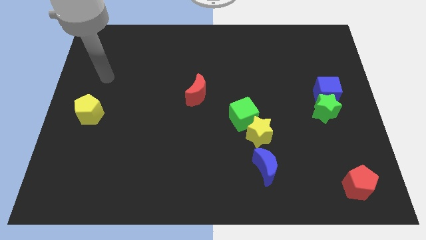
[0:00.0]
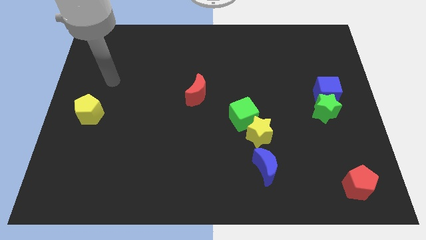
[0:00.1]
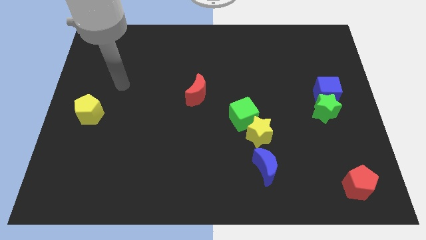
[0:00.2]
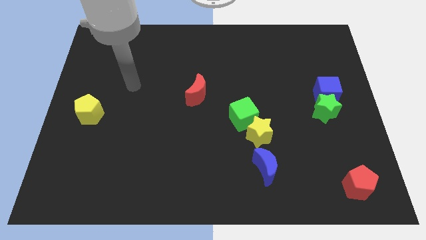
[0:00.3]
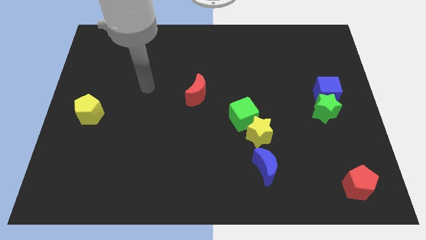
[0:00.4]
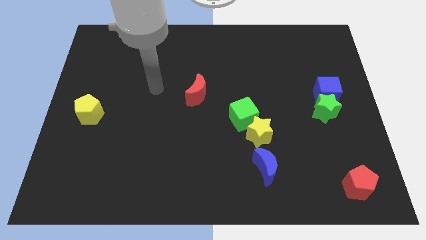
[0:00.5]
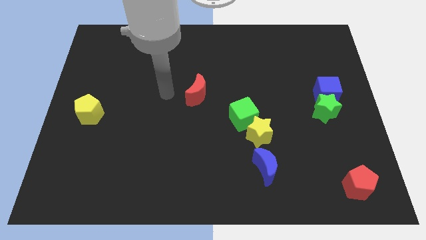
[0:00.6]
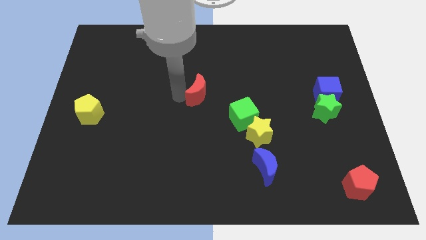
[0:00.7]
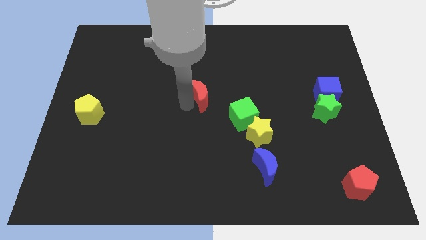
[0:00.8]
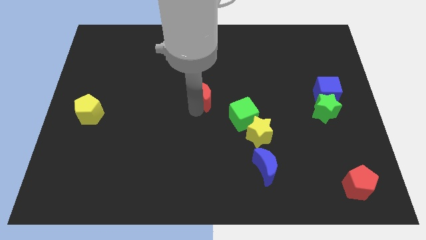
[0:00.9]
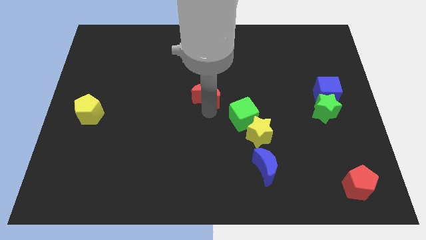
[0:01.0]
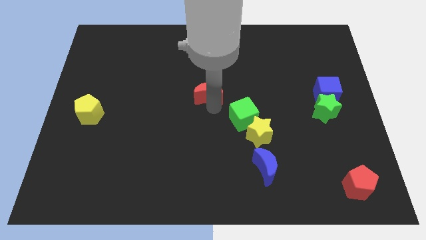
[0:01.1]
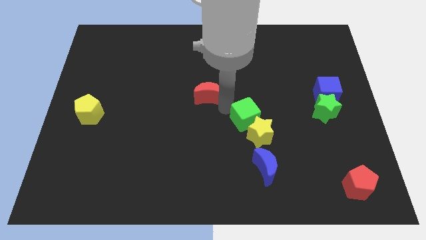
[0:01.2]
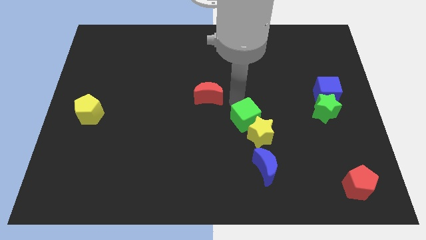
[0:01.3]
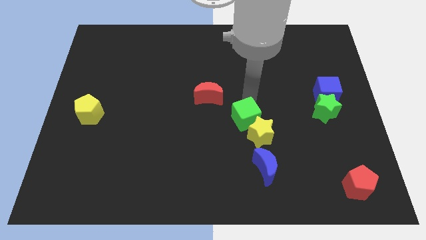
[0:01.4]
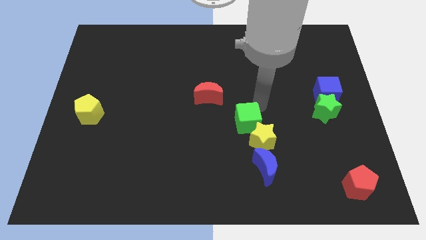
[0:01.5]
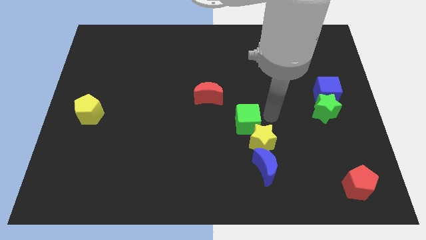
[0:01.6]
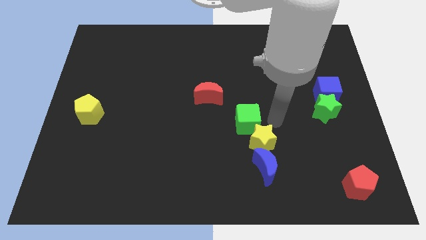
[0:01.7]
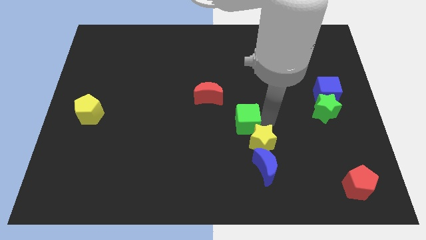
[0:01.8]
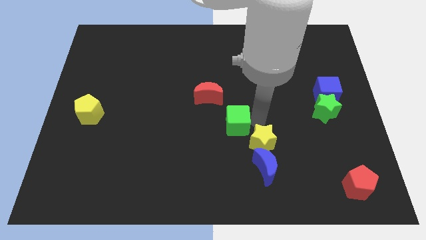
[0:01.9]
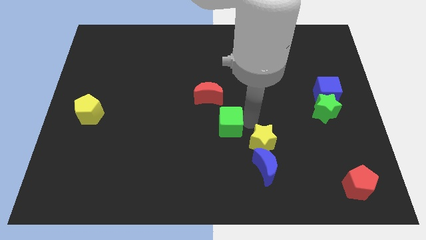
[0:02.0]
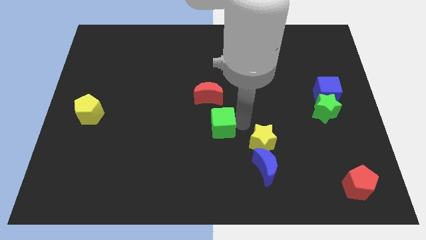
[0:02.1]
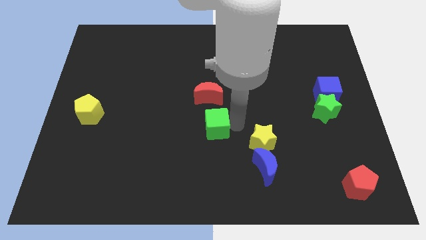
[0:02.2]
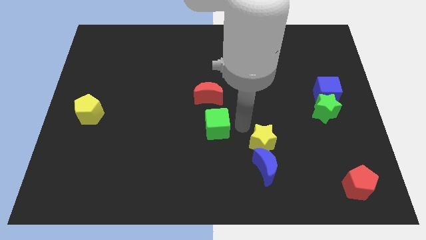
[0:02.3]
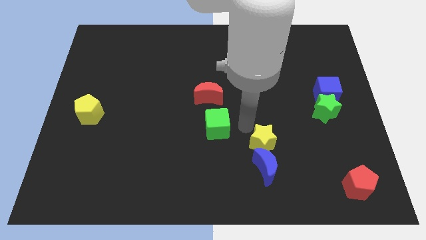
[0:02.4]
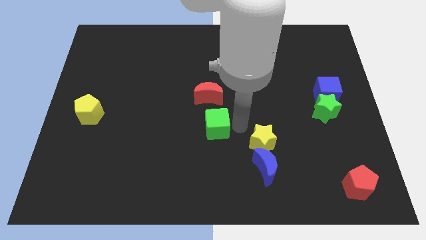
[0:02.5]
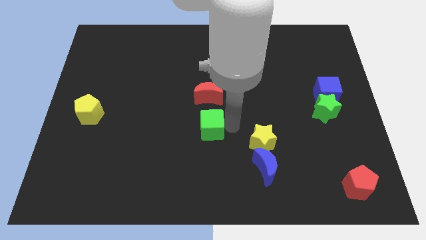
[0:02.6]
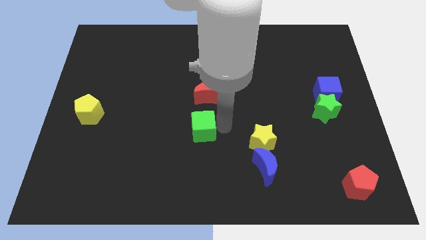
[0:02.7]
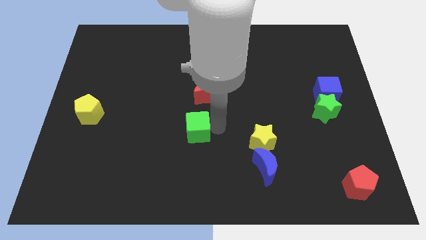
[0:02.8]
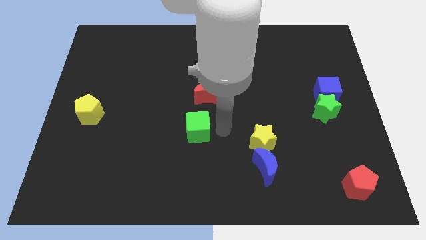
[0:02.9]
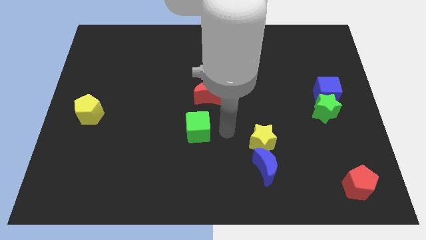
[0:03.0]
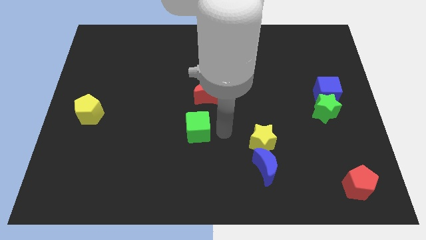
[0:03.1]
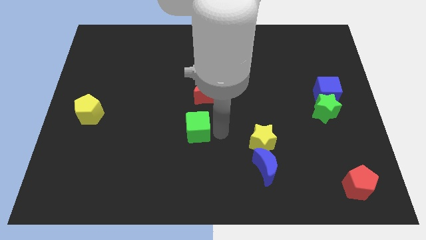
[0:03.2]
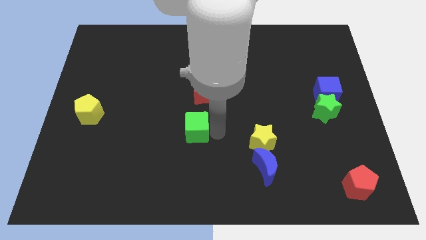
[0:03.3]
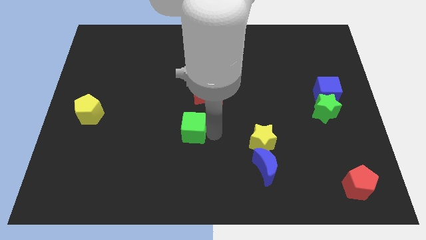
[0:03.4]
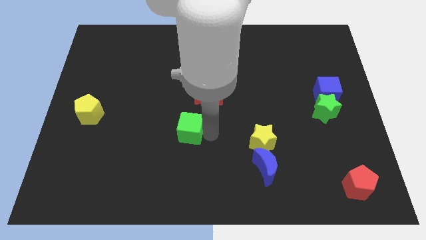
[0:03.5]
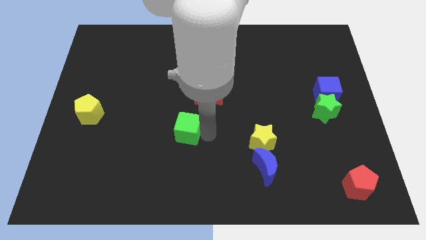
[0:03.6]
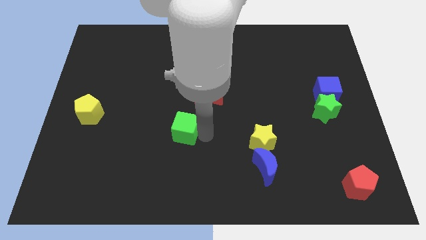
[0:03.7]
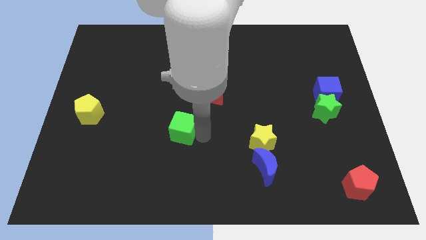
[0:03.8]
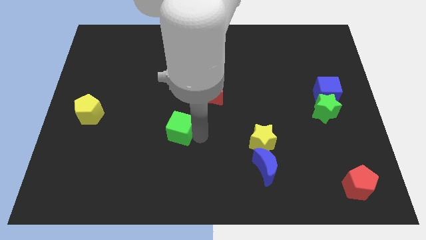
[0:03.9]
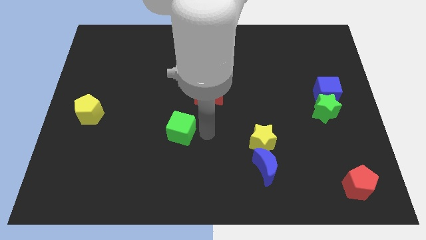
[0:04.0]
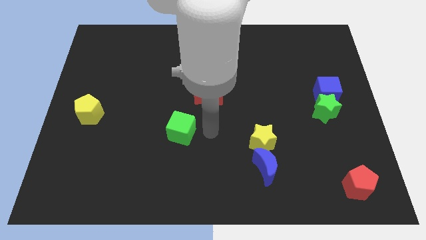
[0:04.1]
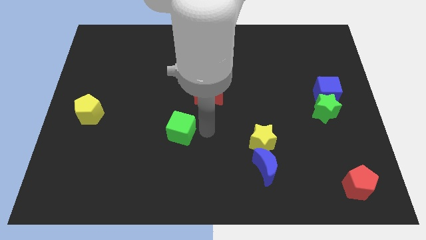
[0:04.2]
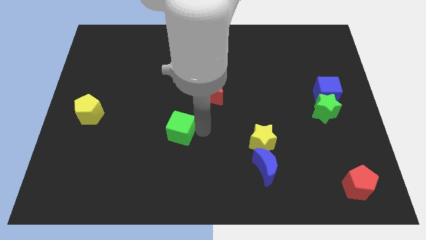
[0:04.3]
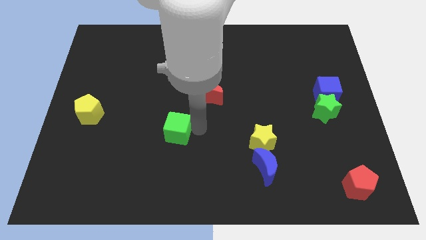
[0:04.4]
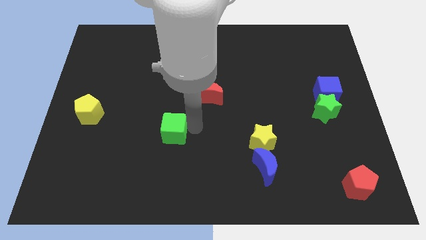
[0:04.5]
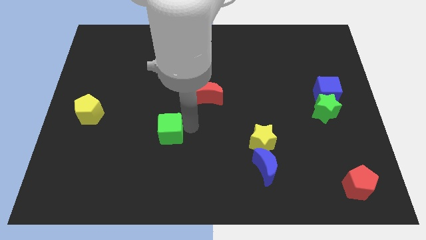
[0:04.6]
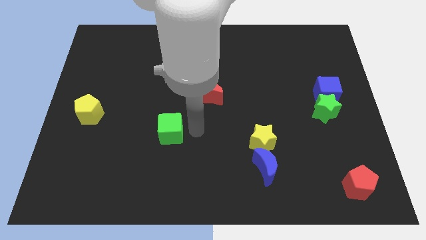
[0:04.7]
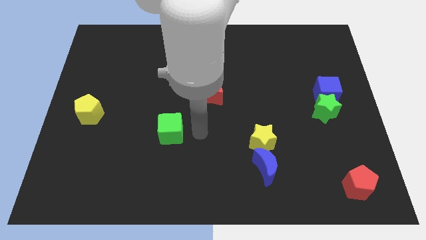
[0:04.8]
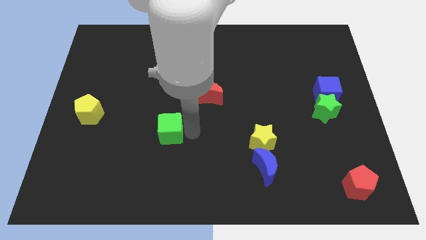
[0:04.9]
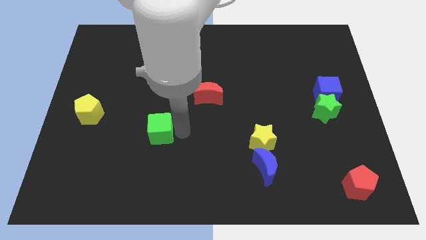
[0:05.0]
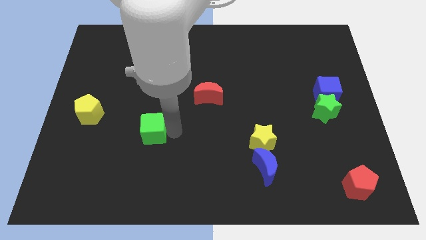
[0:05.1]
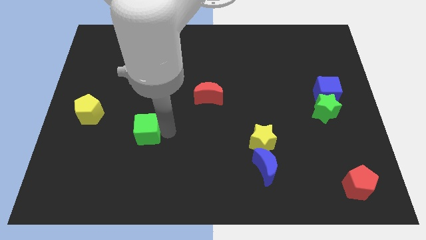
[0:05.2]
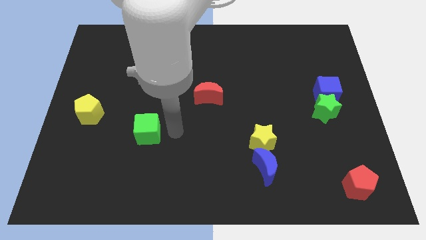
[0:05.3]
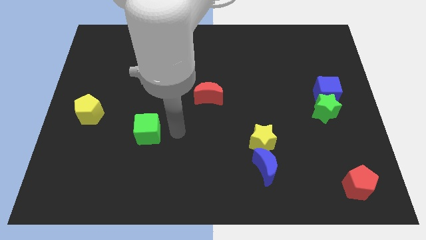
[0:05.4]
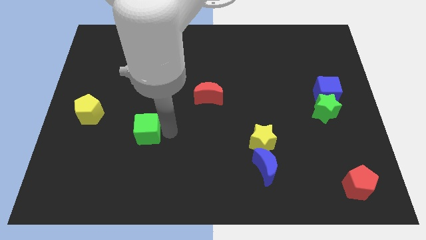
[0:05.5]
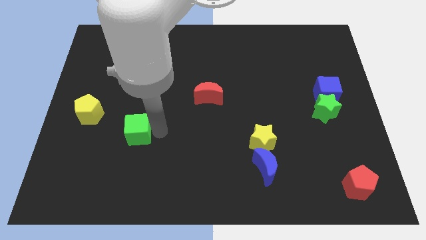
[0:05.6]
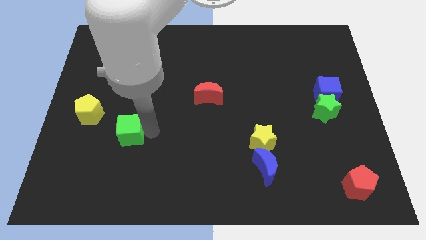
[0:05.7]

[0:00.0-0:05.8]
move the green cube to the bottom right of the yellow pentagon

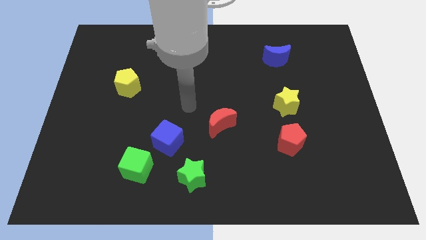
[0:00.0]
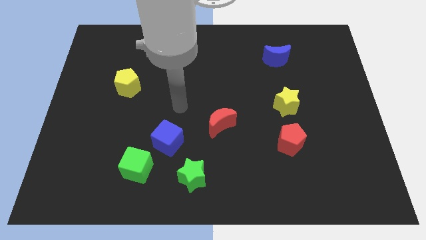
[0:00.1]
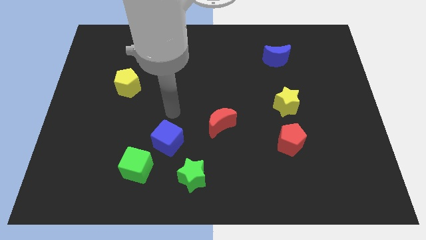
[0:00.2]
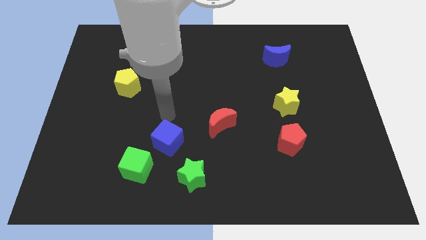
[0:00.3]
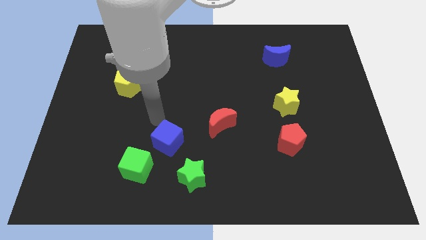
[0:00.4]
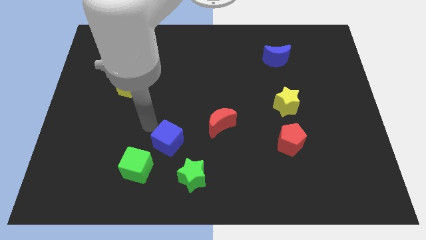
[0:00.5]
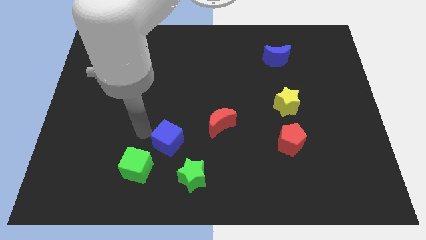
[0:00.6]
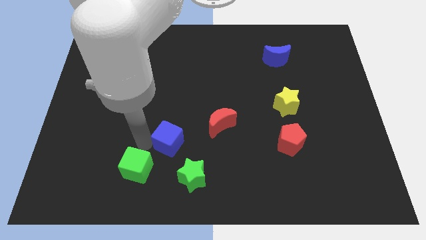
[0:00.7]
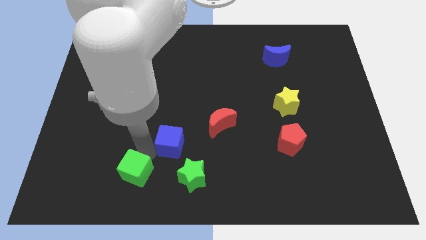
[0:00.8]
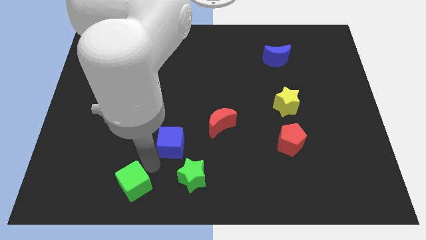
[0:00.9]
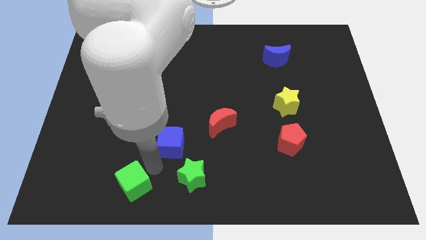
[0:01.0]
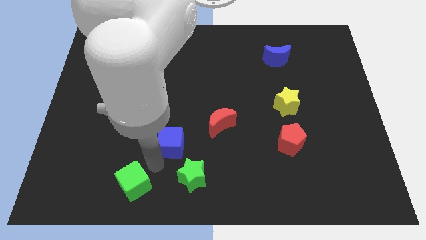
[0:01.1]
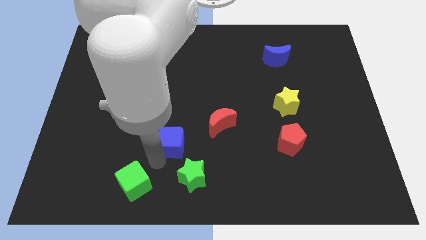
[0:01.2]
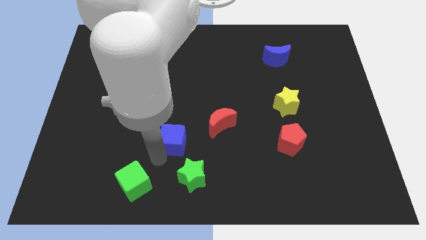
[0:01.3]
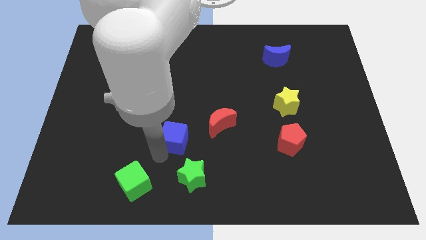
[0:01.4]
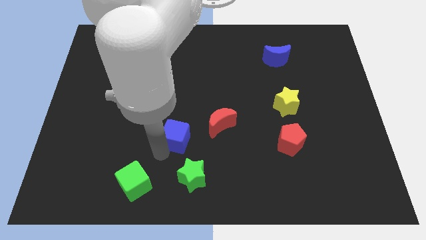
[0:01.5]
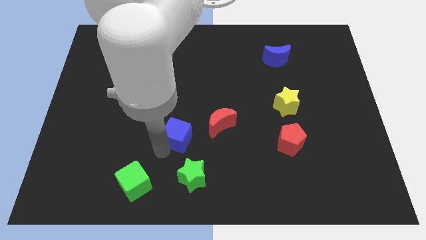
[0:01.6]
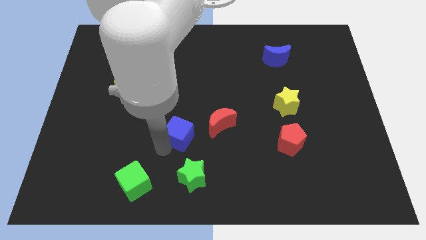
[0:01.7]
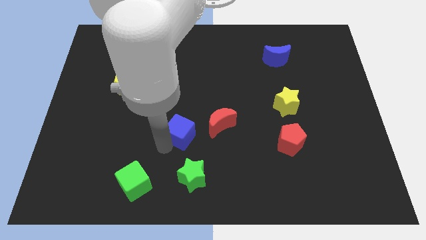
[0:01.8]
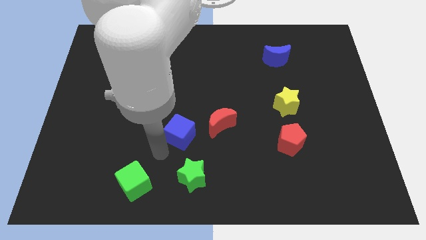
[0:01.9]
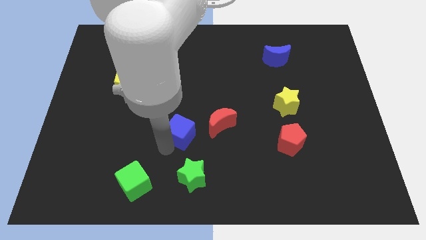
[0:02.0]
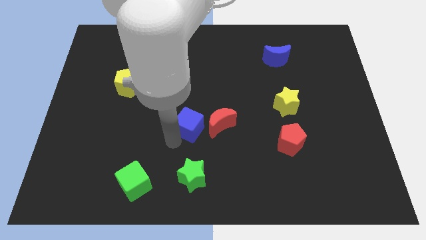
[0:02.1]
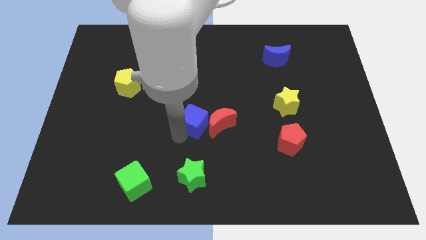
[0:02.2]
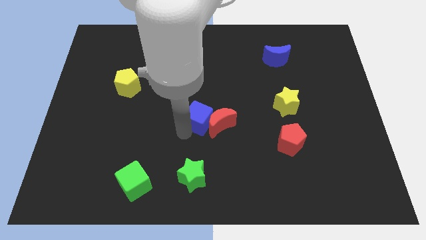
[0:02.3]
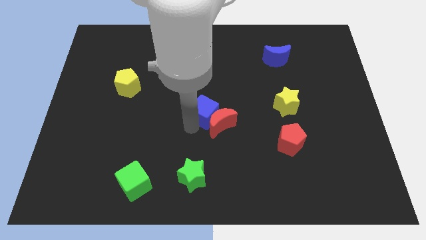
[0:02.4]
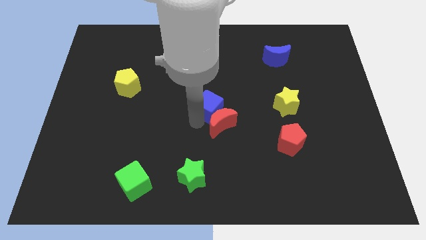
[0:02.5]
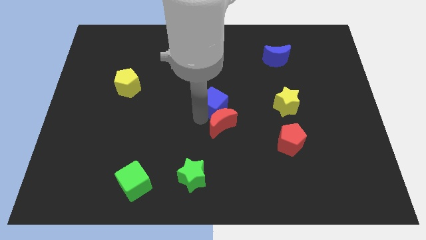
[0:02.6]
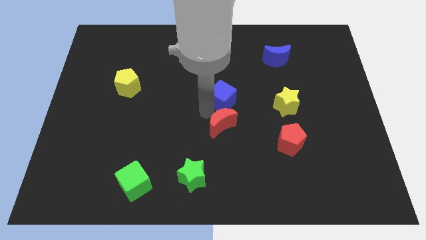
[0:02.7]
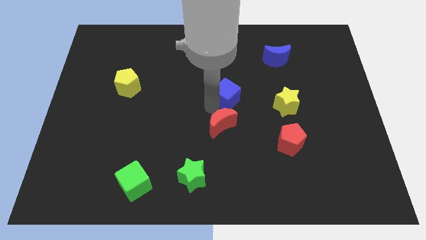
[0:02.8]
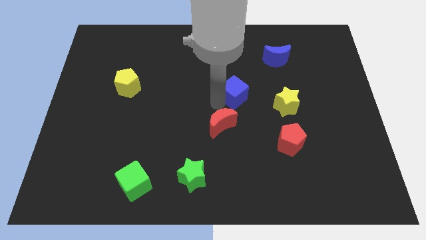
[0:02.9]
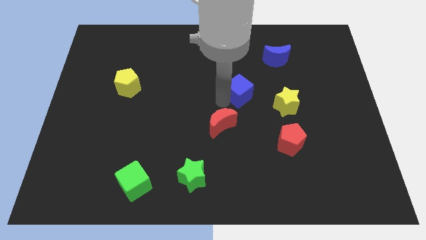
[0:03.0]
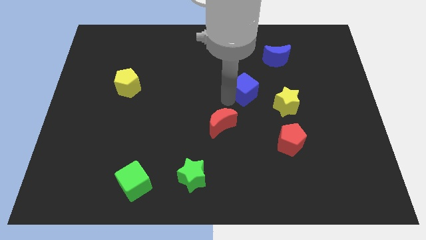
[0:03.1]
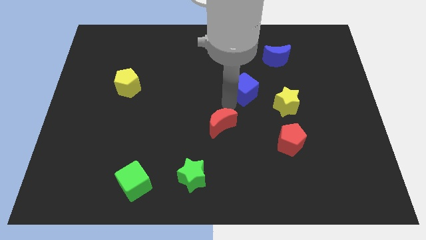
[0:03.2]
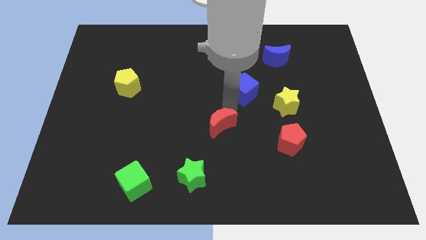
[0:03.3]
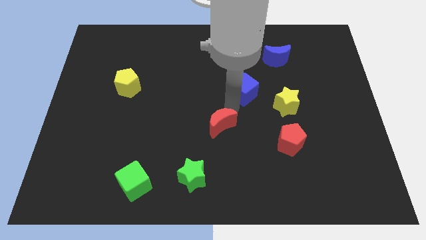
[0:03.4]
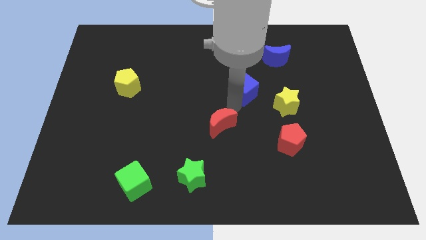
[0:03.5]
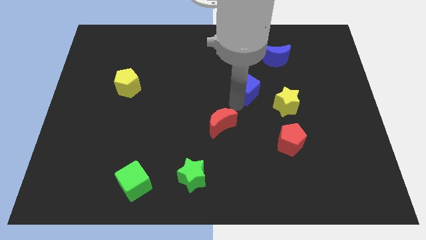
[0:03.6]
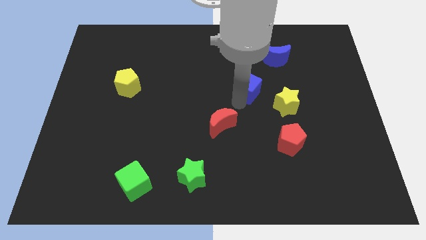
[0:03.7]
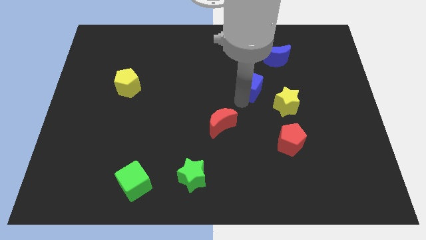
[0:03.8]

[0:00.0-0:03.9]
push the blue cube to the bottom left of the blue moon
